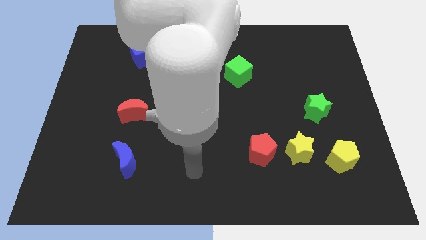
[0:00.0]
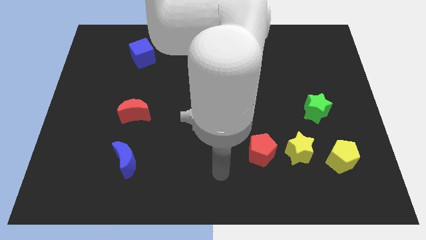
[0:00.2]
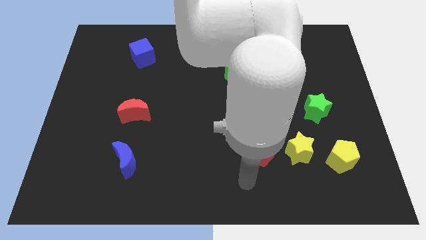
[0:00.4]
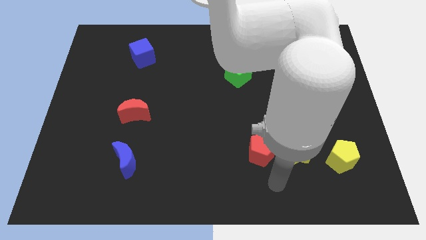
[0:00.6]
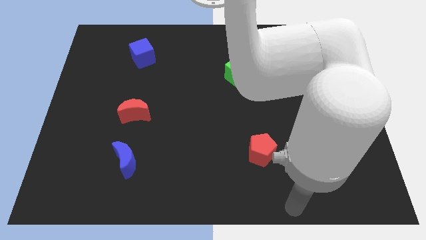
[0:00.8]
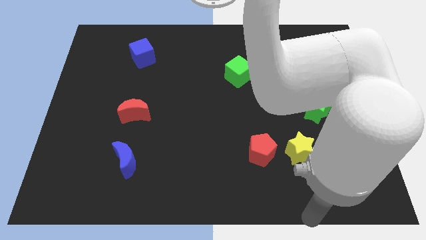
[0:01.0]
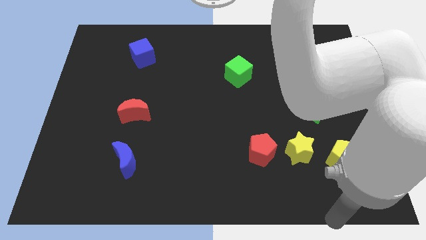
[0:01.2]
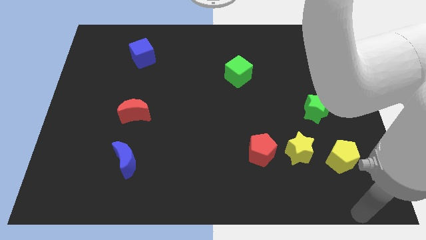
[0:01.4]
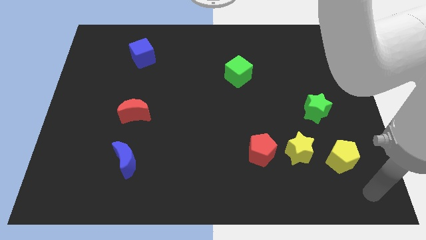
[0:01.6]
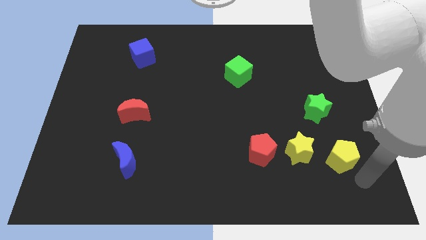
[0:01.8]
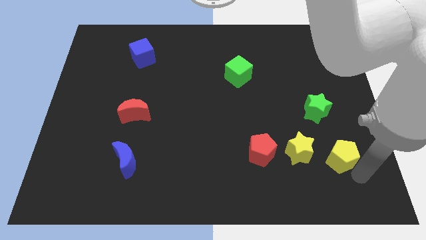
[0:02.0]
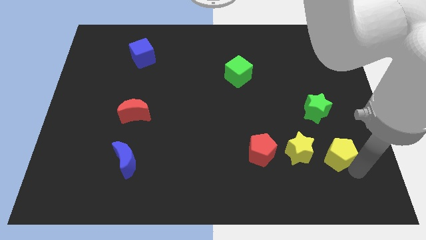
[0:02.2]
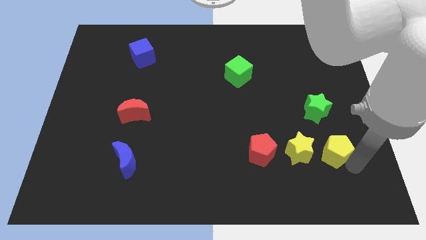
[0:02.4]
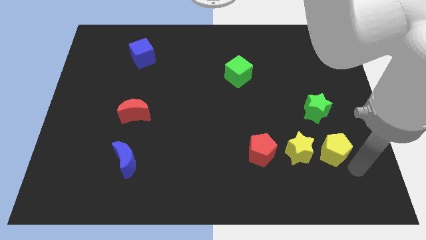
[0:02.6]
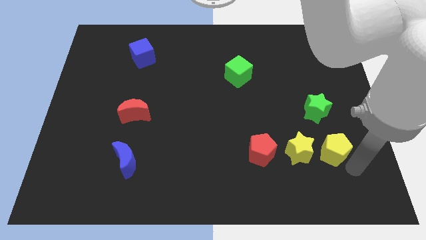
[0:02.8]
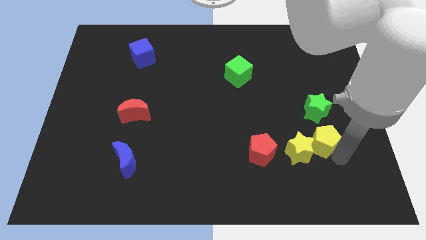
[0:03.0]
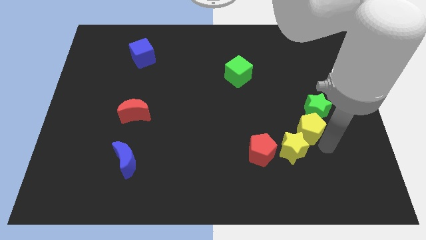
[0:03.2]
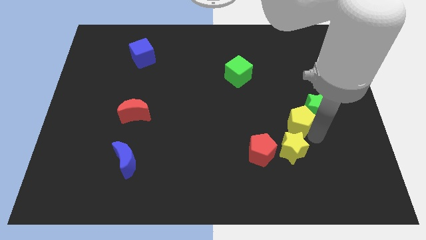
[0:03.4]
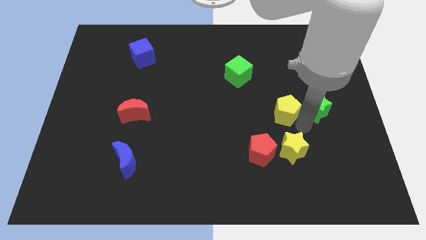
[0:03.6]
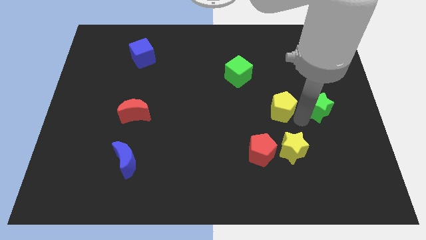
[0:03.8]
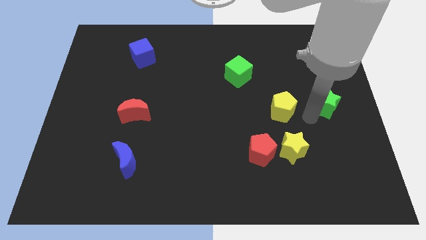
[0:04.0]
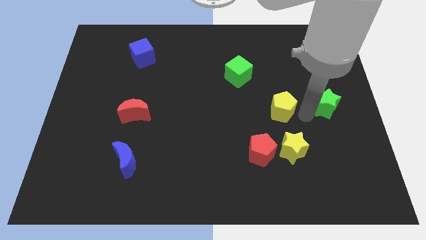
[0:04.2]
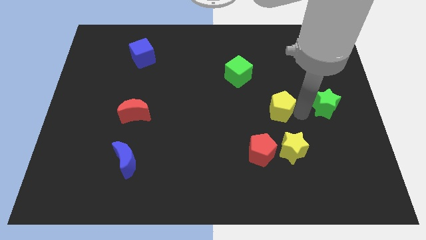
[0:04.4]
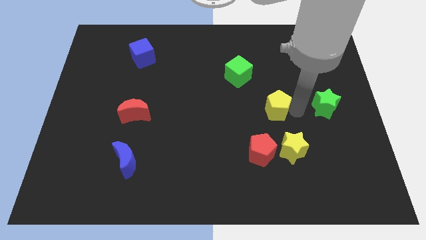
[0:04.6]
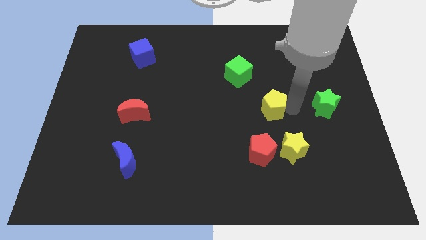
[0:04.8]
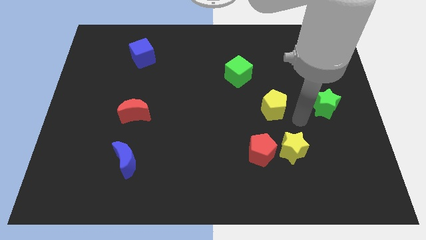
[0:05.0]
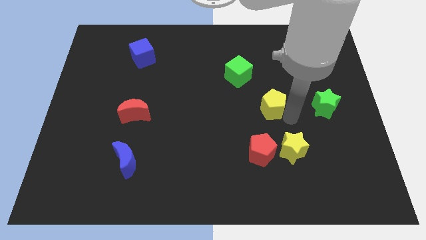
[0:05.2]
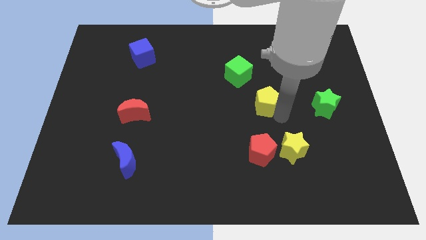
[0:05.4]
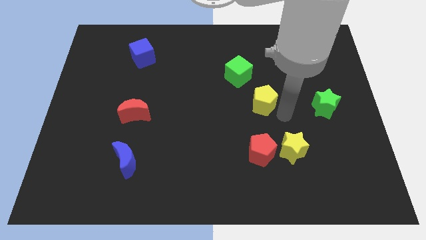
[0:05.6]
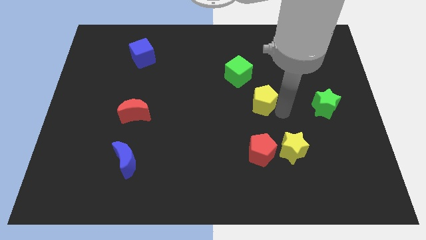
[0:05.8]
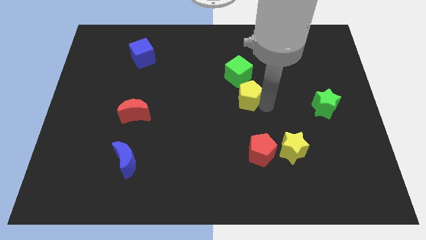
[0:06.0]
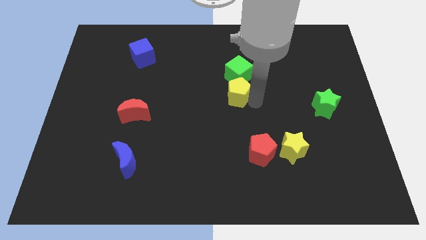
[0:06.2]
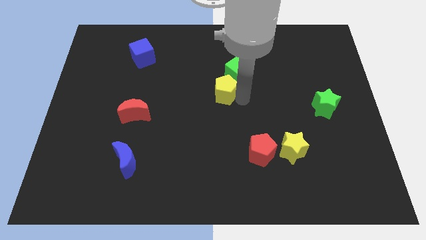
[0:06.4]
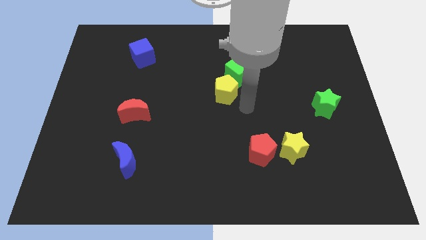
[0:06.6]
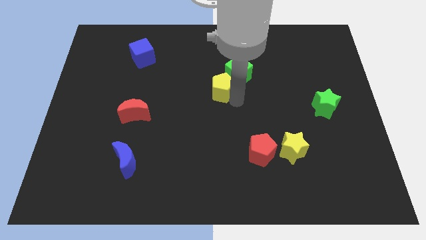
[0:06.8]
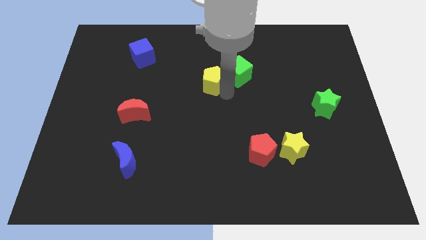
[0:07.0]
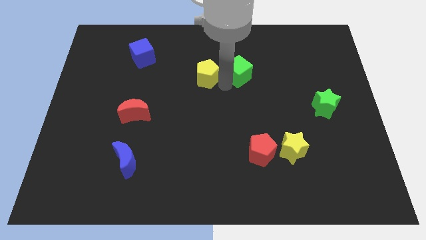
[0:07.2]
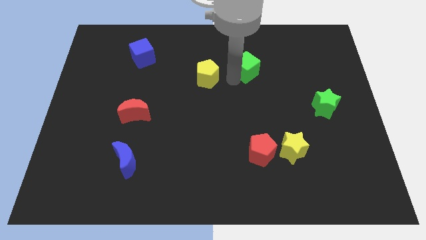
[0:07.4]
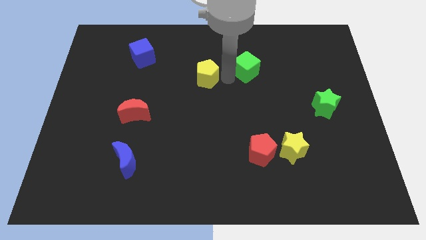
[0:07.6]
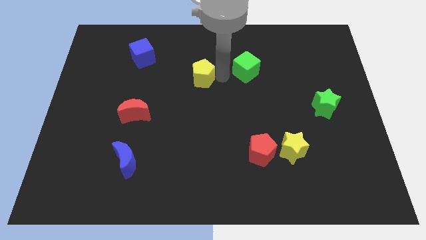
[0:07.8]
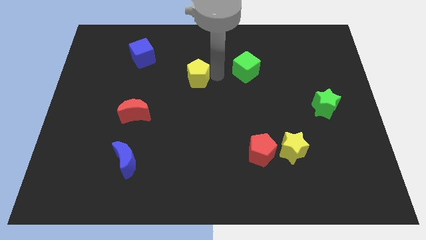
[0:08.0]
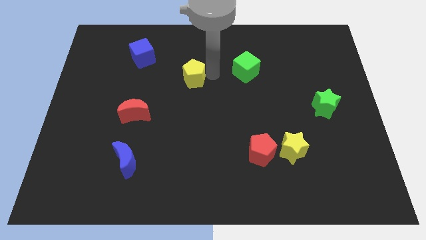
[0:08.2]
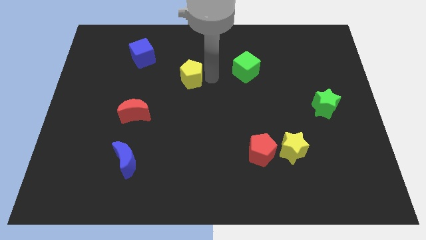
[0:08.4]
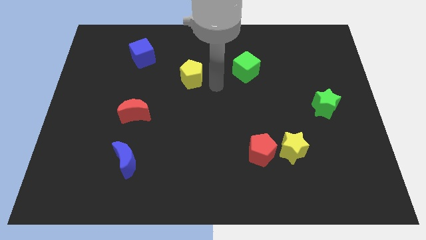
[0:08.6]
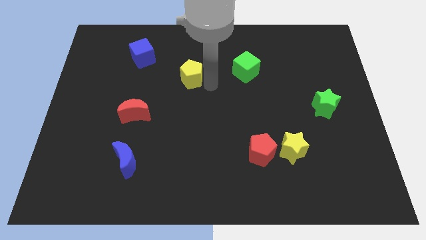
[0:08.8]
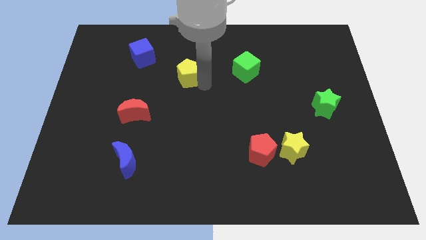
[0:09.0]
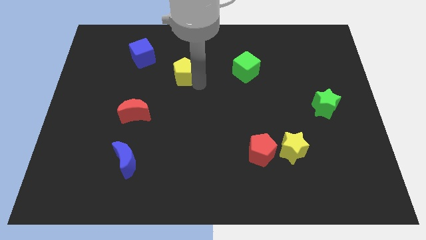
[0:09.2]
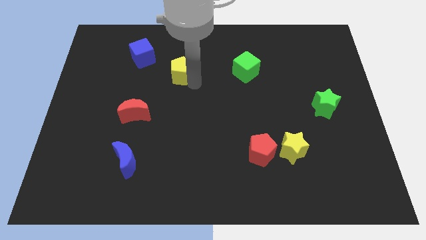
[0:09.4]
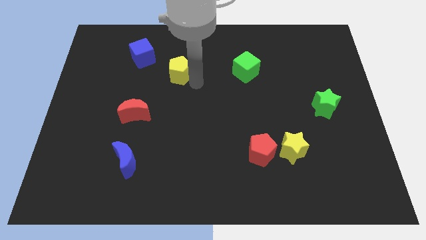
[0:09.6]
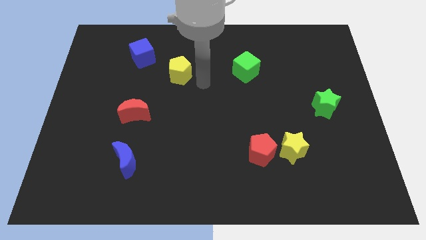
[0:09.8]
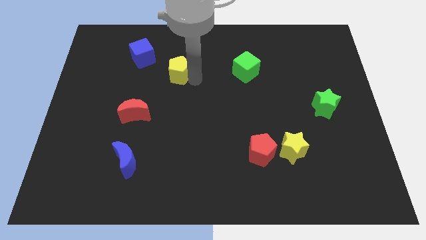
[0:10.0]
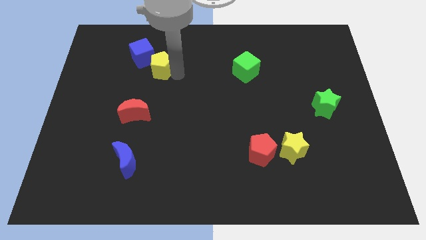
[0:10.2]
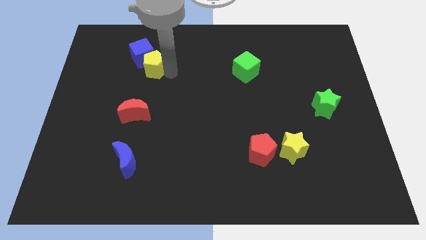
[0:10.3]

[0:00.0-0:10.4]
move the yellow pentagon towards the blue cube

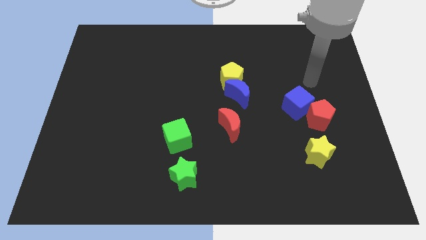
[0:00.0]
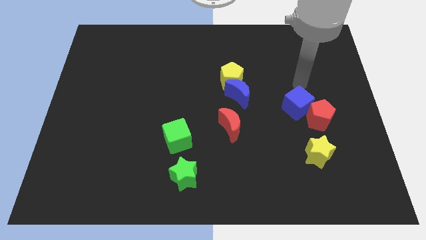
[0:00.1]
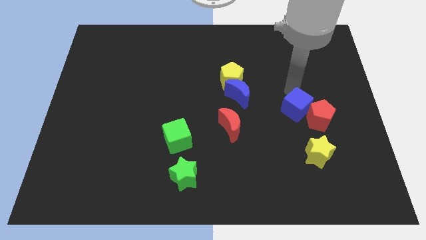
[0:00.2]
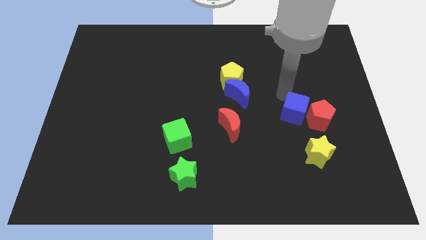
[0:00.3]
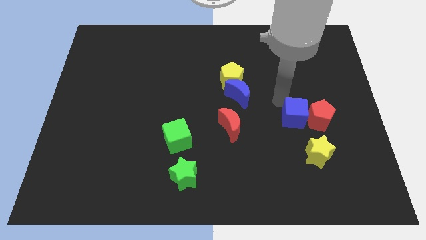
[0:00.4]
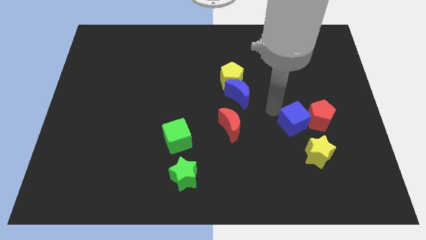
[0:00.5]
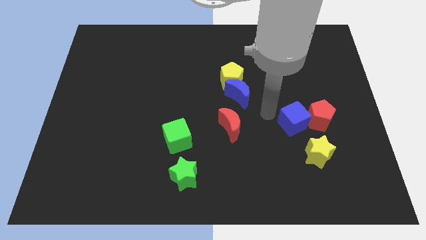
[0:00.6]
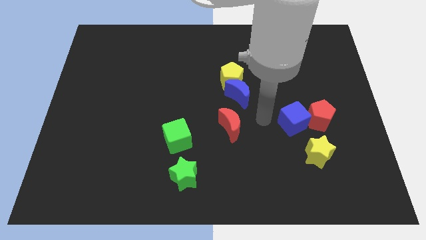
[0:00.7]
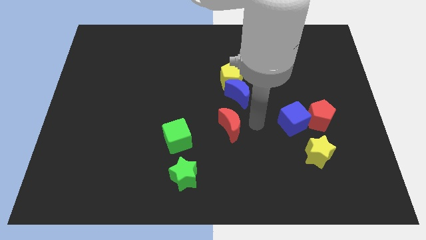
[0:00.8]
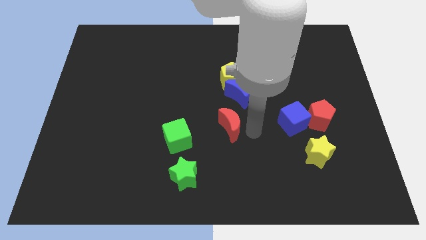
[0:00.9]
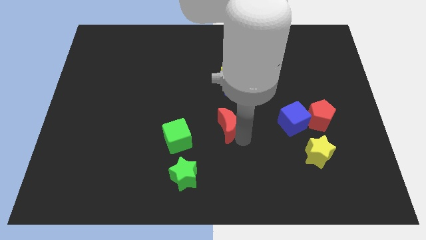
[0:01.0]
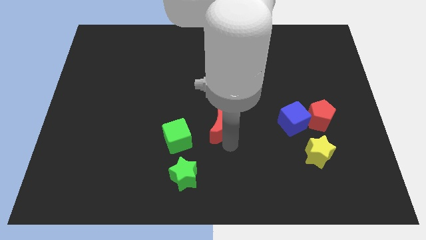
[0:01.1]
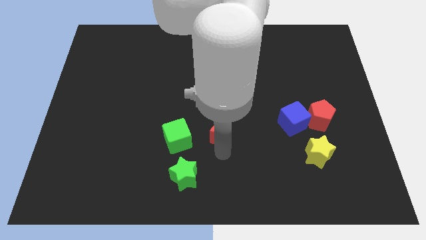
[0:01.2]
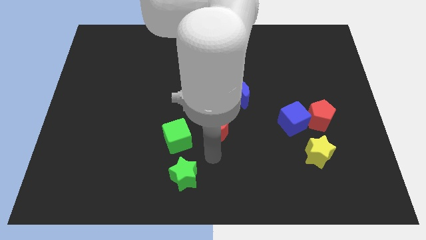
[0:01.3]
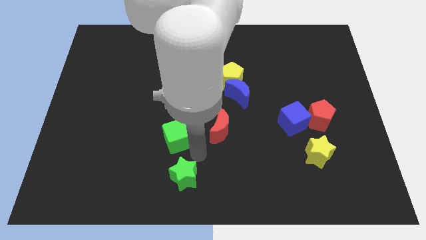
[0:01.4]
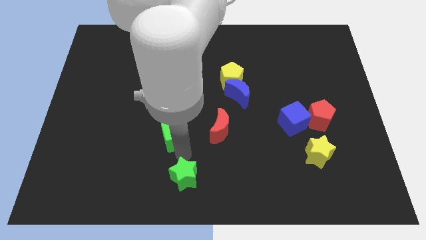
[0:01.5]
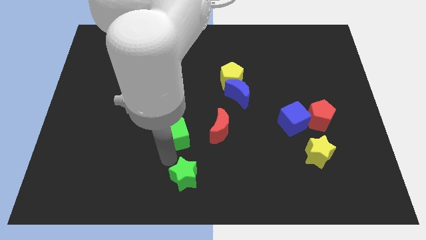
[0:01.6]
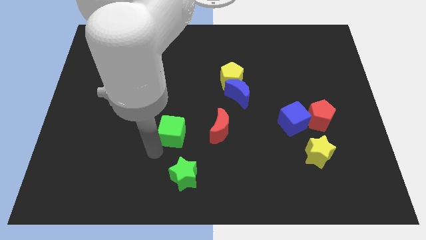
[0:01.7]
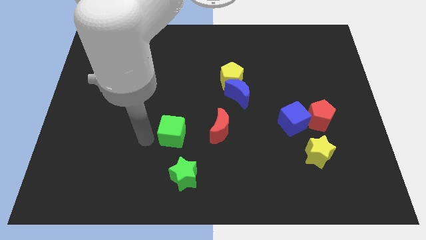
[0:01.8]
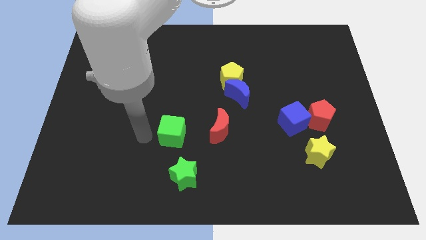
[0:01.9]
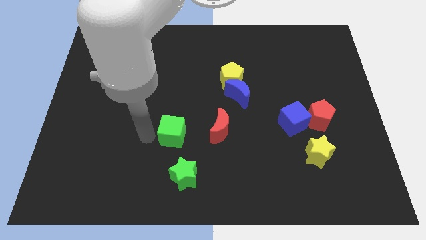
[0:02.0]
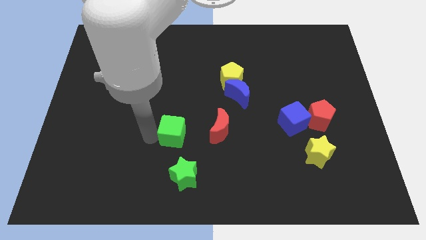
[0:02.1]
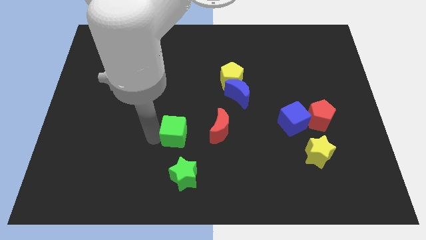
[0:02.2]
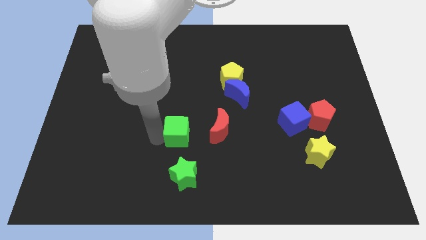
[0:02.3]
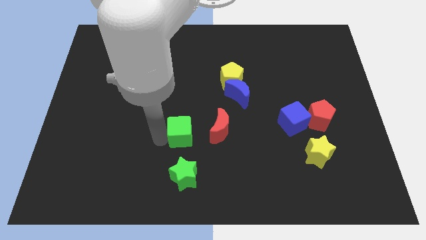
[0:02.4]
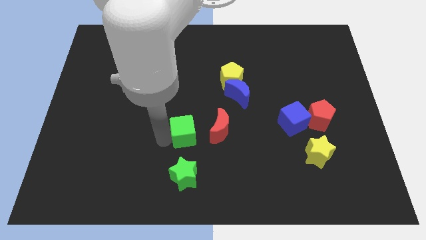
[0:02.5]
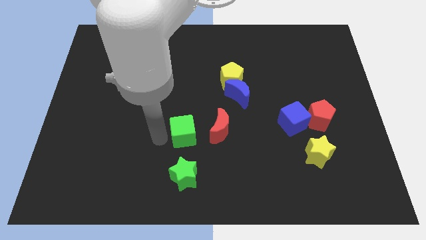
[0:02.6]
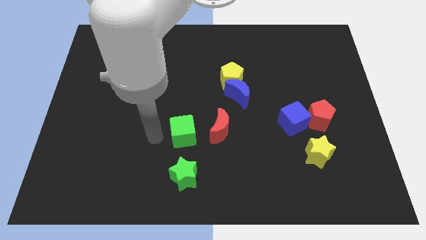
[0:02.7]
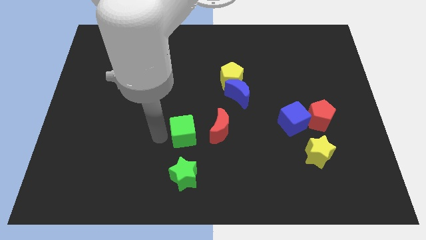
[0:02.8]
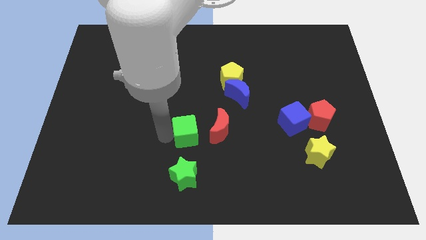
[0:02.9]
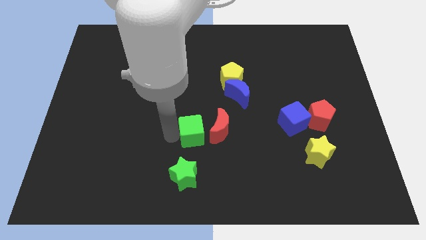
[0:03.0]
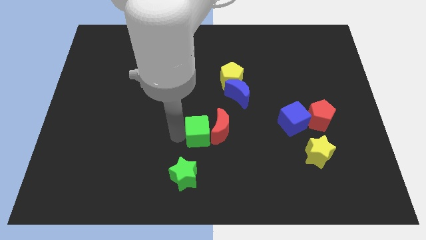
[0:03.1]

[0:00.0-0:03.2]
move the green cube close to the red moon
